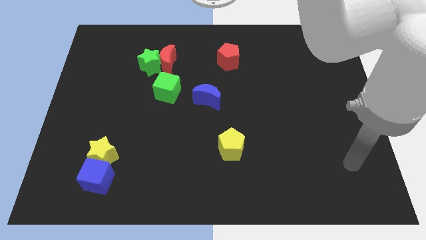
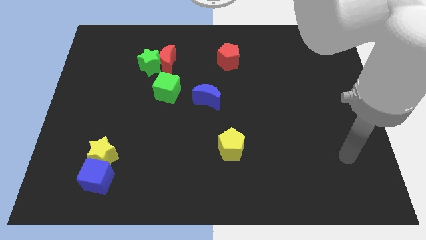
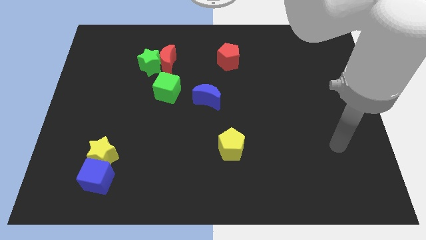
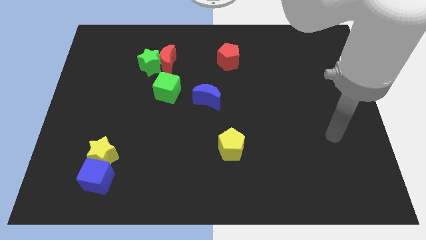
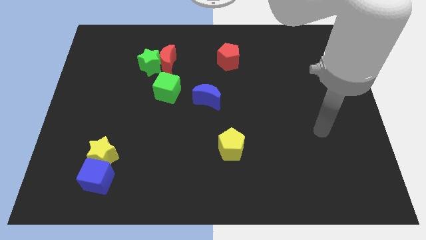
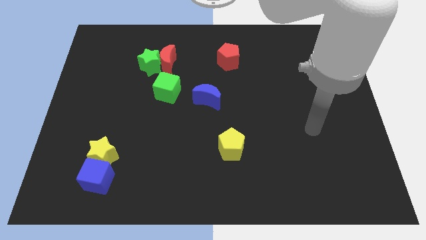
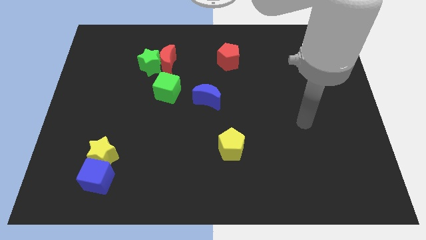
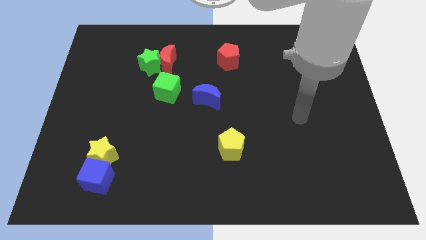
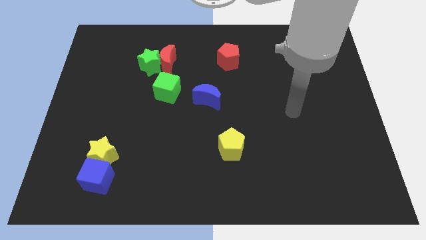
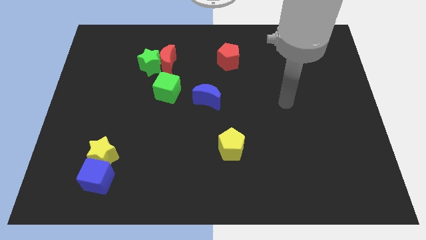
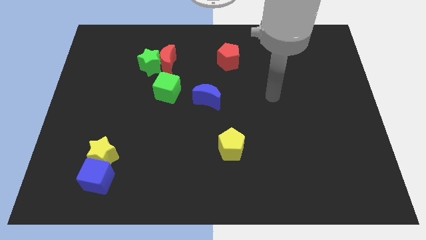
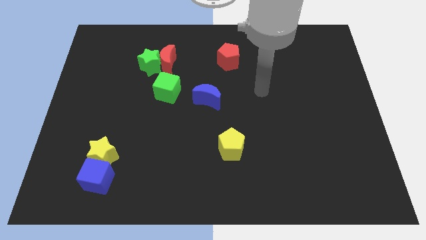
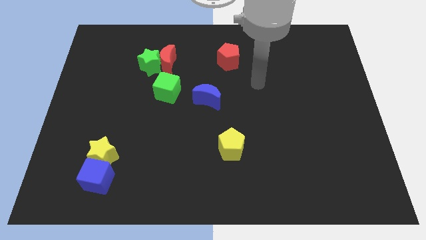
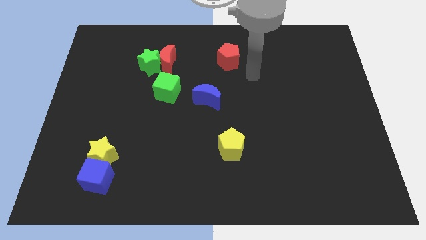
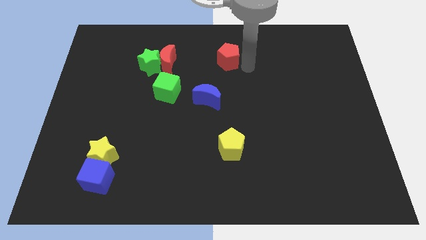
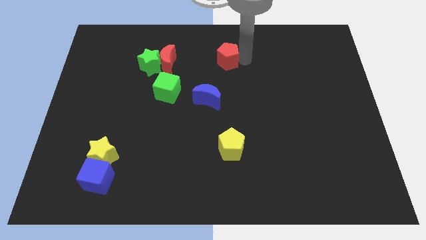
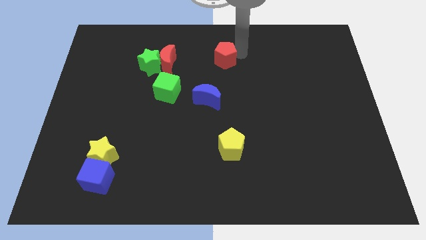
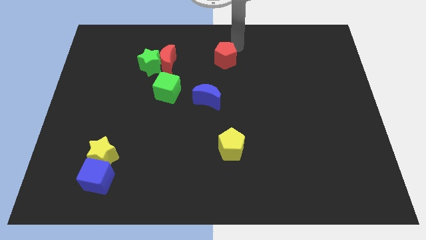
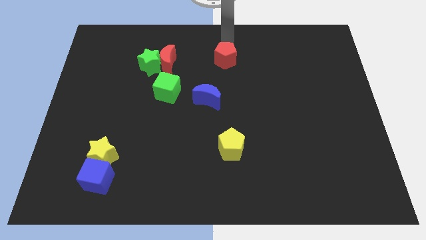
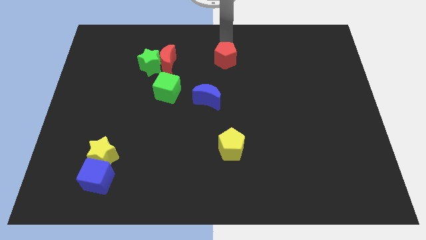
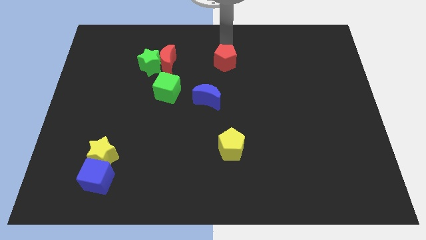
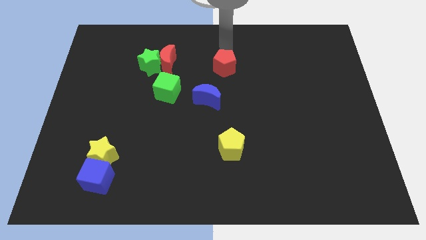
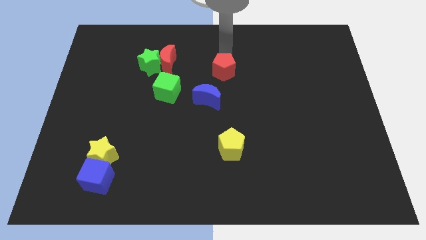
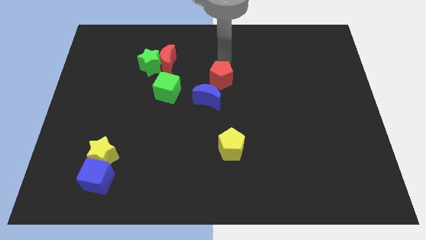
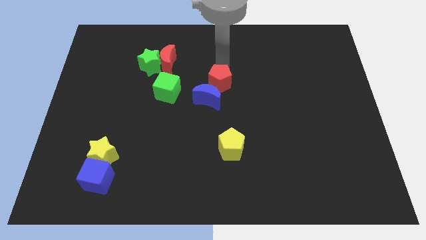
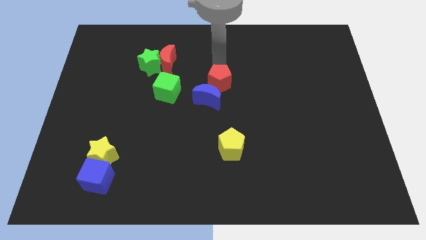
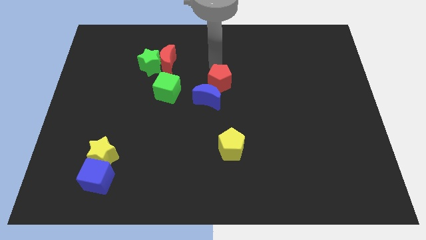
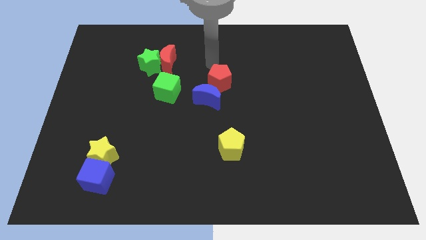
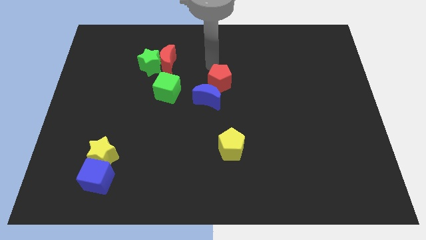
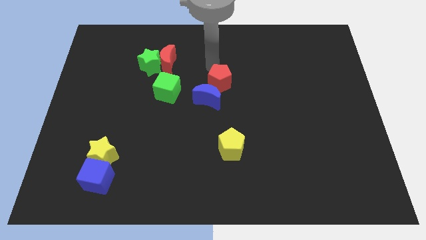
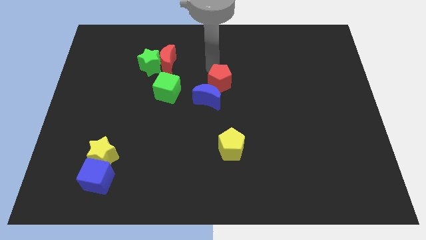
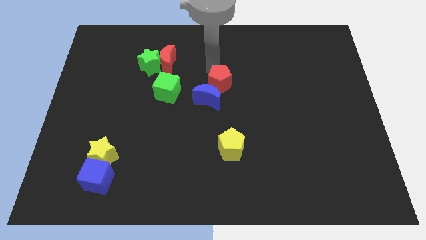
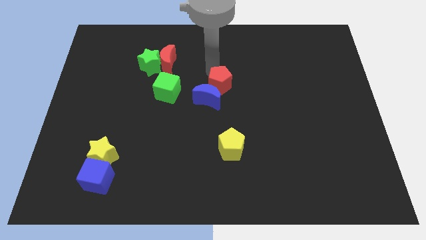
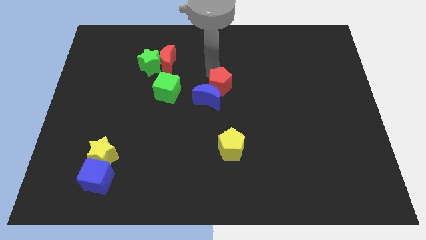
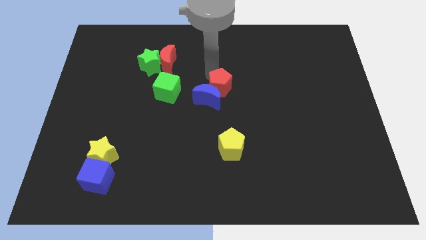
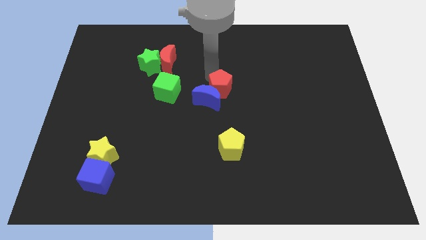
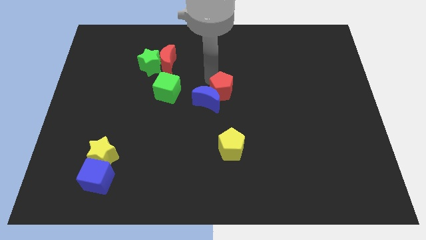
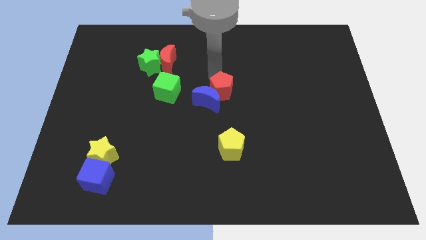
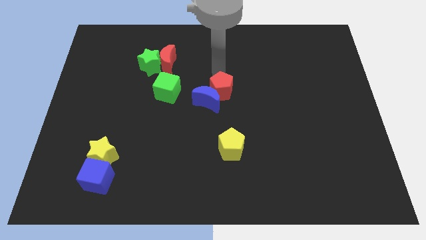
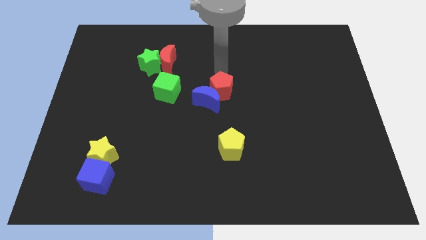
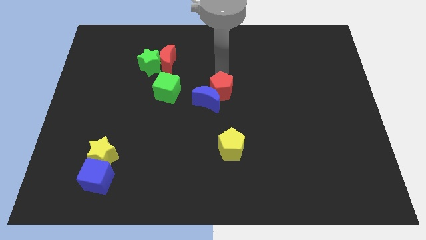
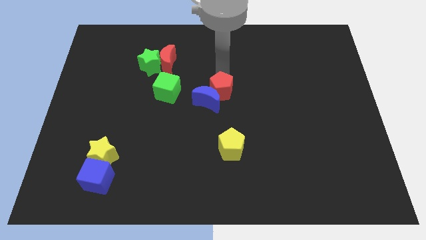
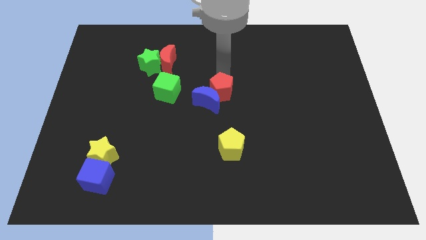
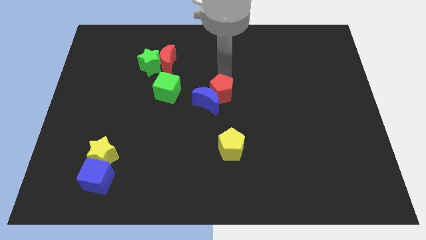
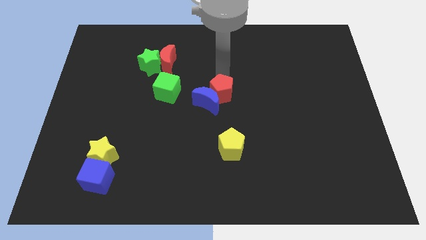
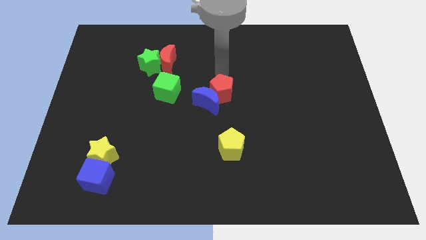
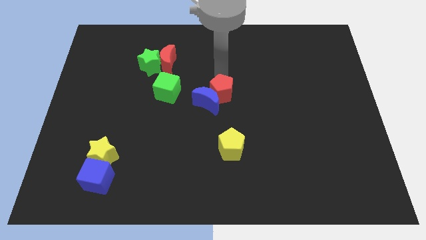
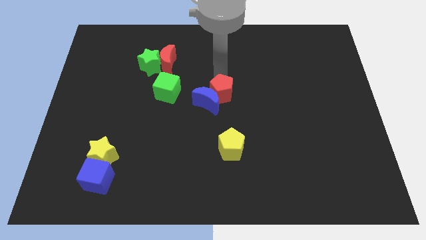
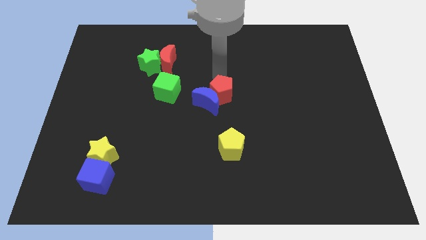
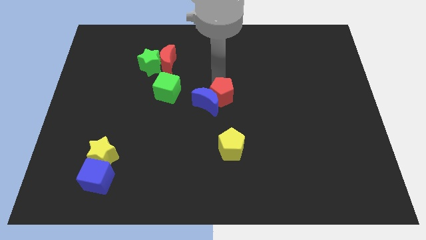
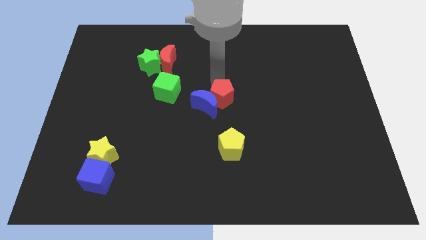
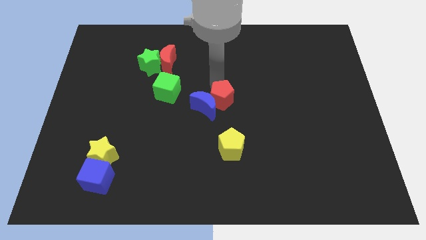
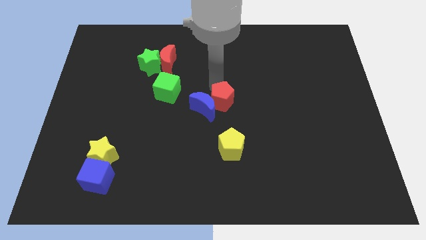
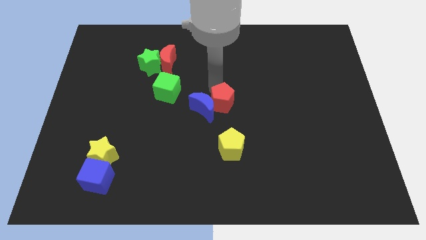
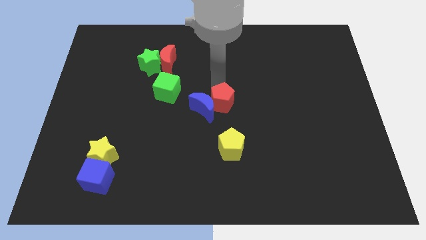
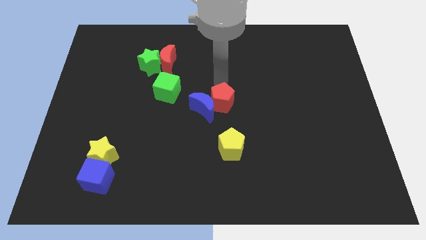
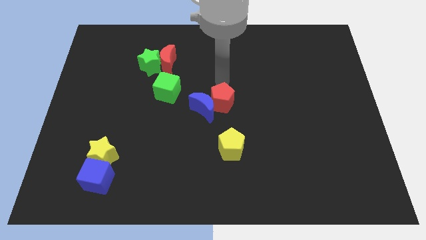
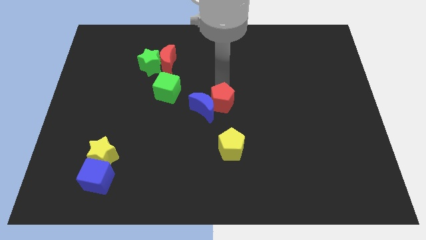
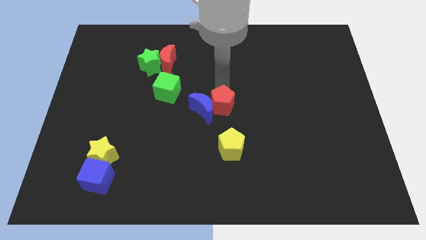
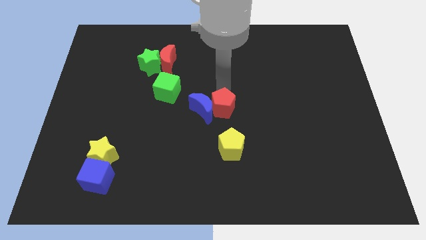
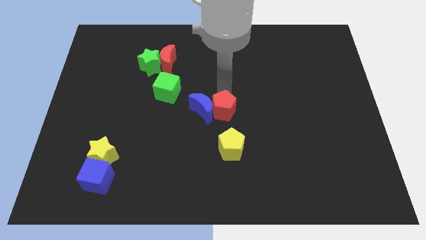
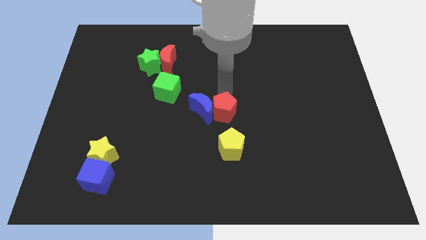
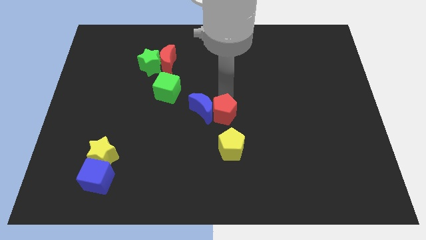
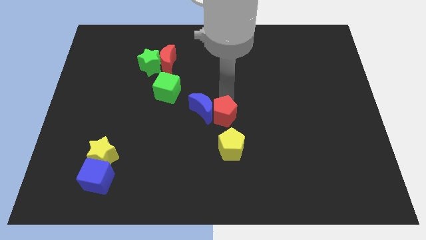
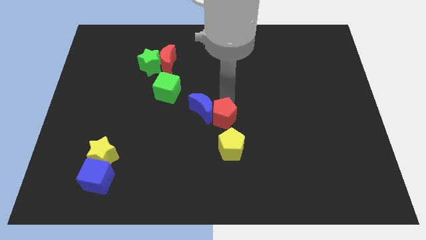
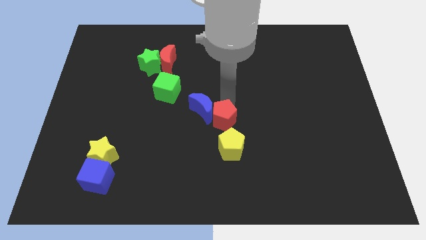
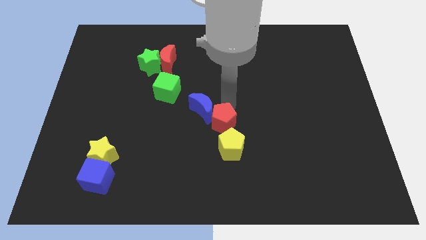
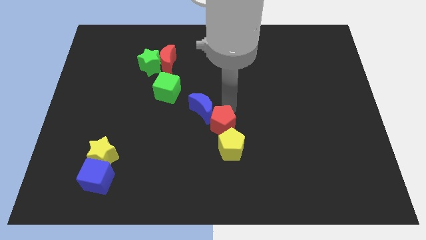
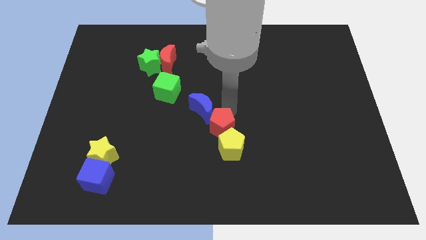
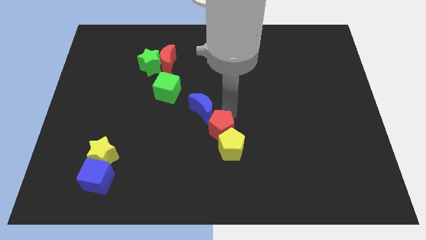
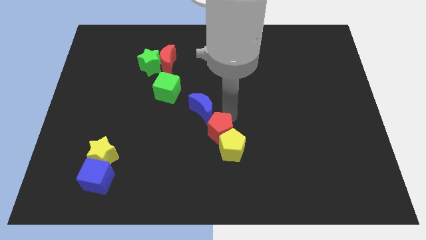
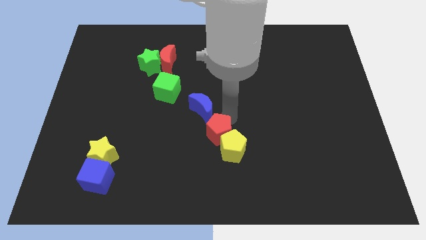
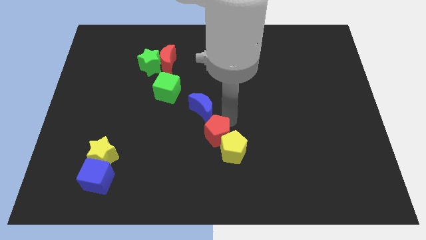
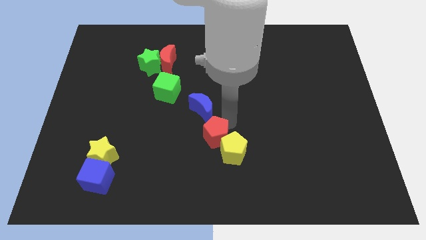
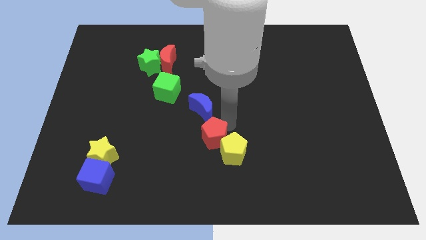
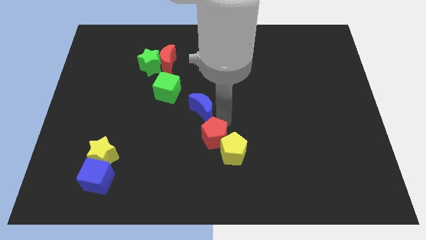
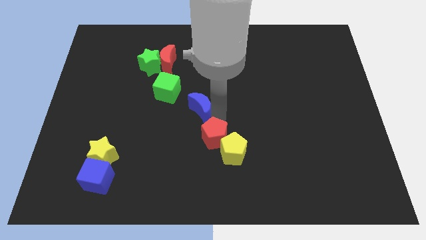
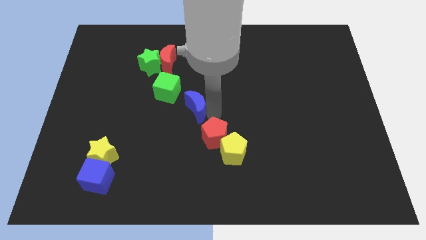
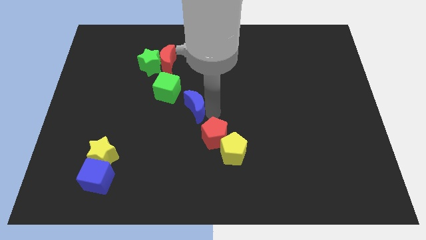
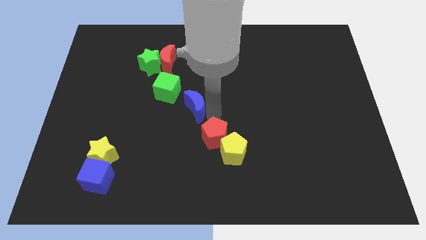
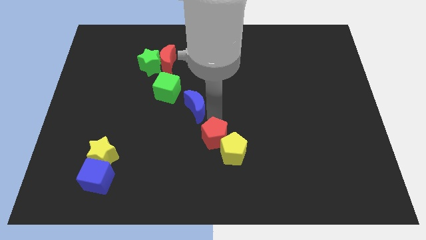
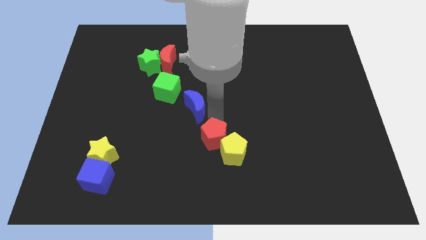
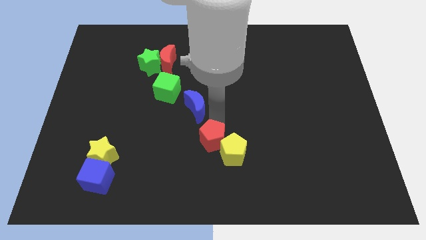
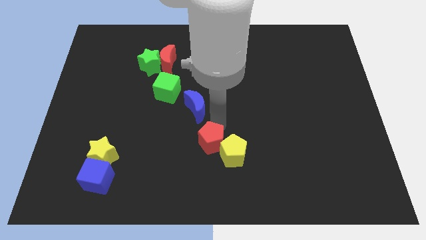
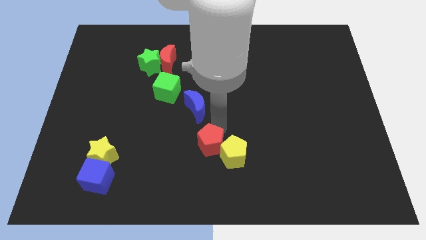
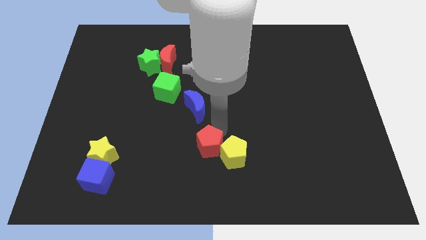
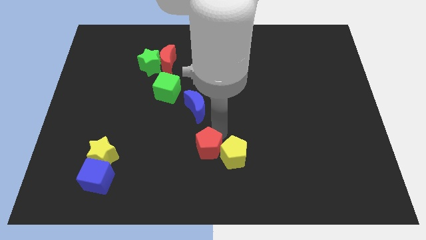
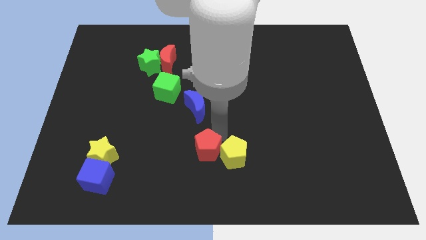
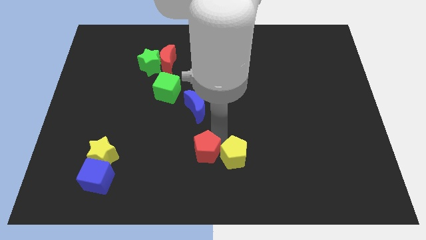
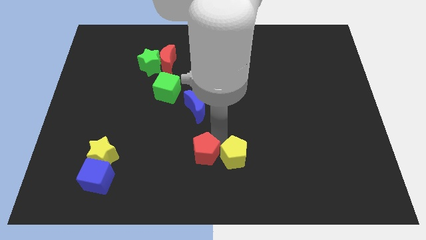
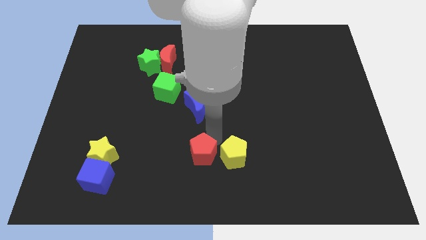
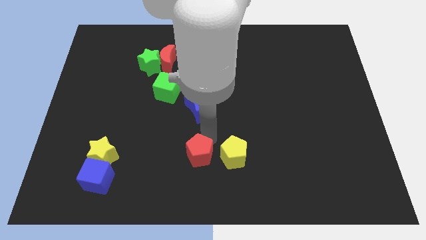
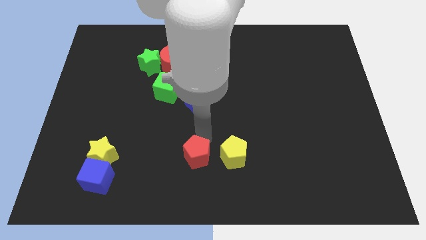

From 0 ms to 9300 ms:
slide the red pentagon to the bottom side
